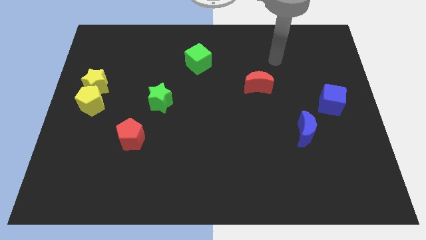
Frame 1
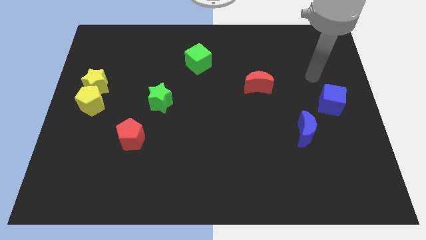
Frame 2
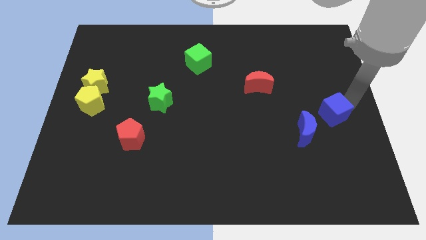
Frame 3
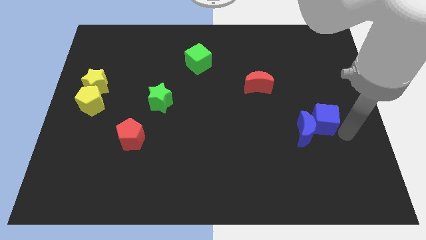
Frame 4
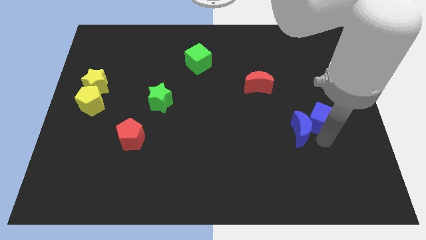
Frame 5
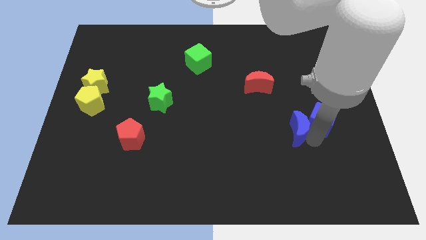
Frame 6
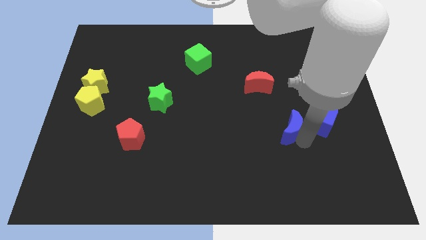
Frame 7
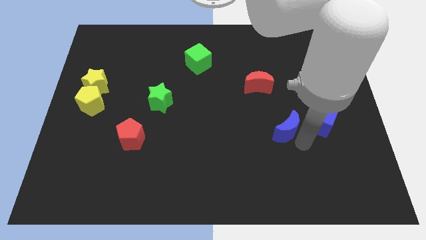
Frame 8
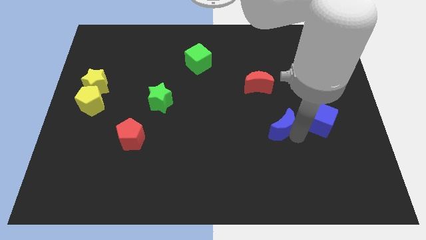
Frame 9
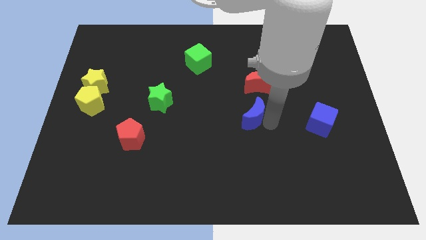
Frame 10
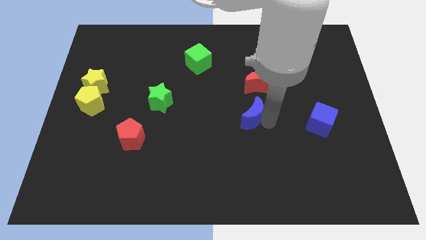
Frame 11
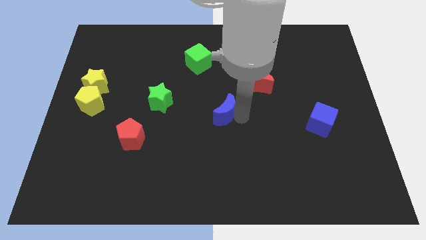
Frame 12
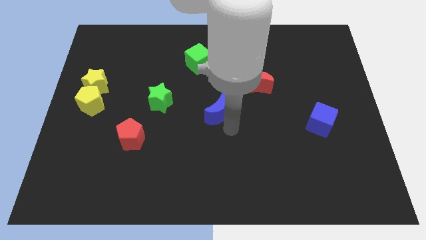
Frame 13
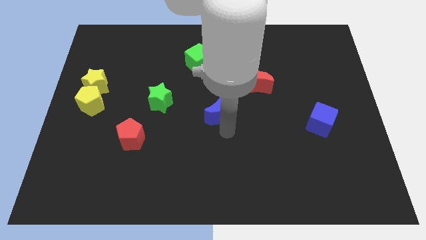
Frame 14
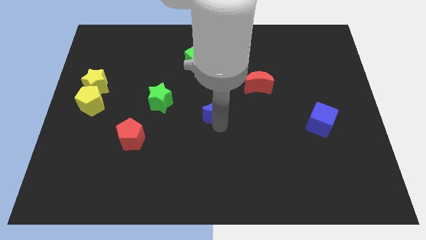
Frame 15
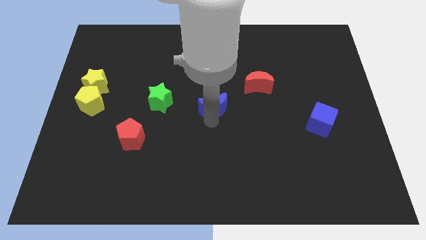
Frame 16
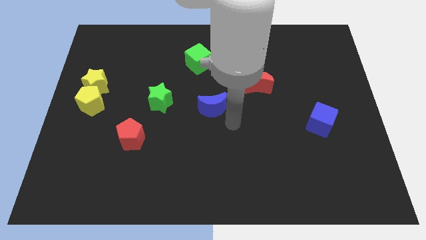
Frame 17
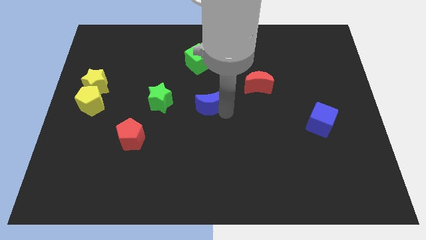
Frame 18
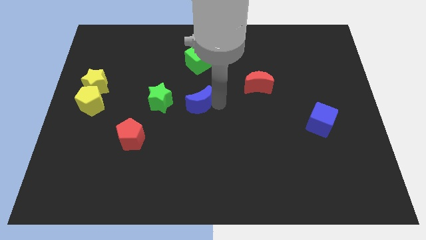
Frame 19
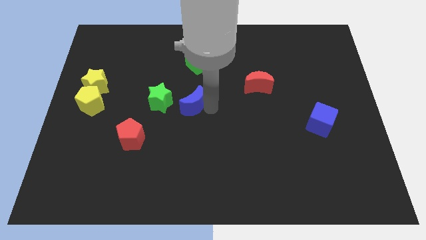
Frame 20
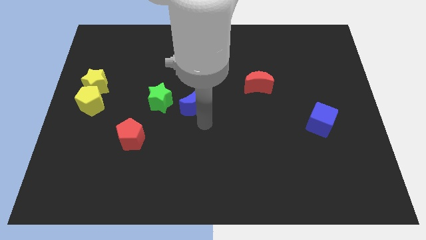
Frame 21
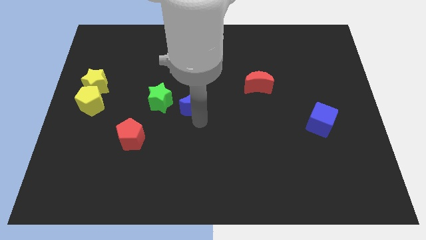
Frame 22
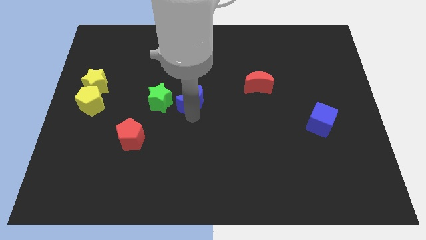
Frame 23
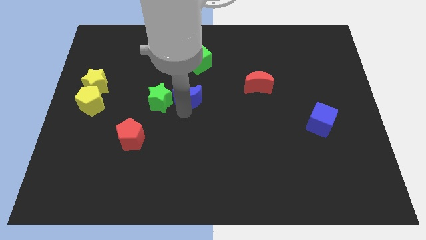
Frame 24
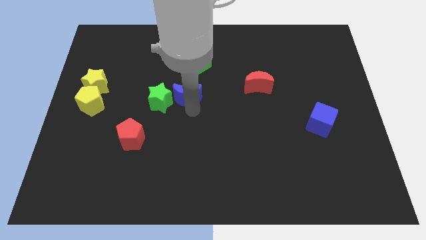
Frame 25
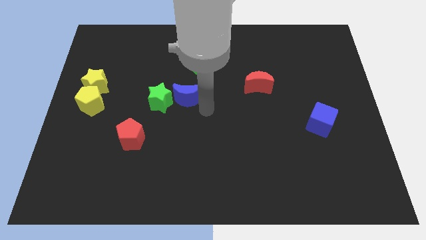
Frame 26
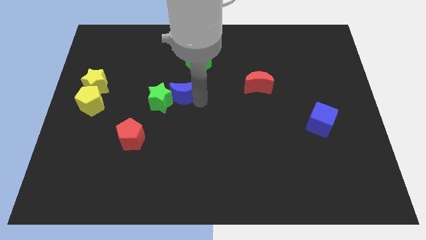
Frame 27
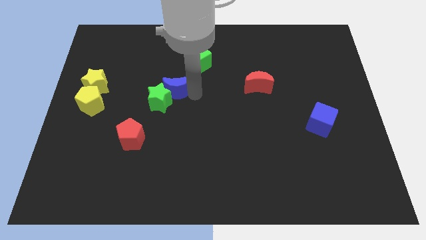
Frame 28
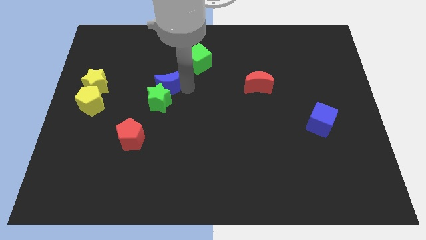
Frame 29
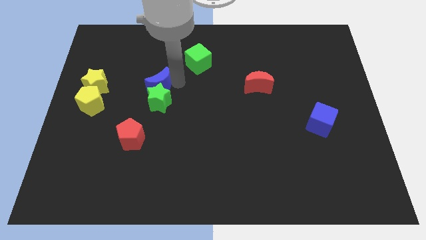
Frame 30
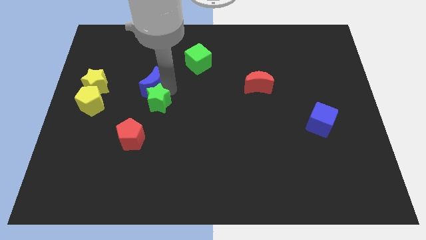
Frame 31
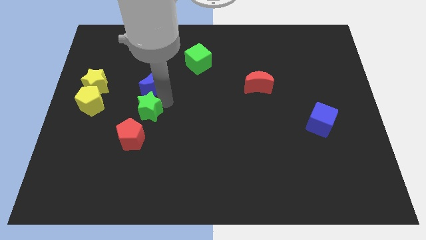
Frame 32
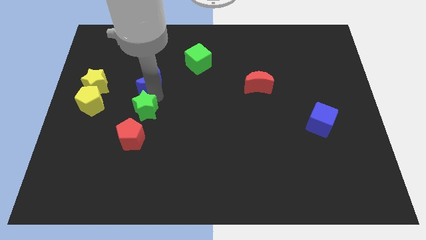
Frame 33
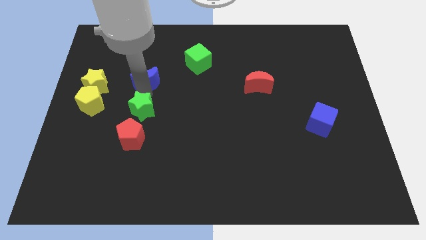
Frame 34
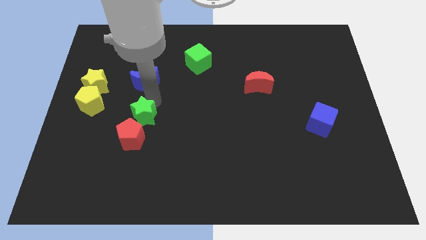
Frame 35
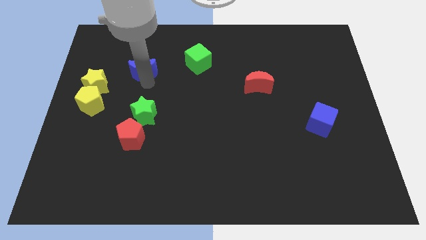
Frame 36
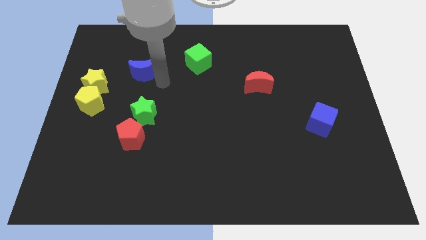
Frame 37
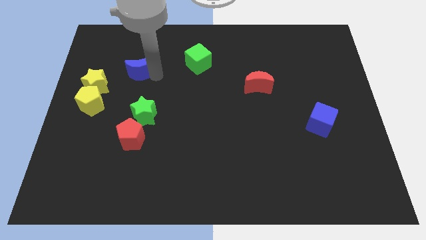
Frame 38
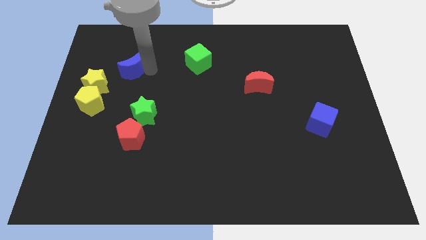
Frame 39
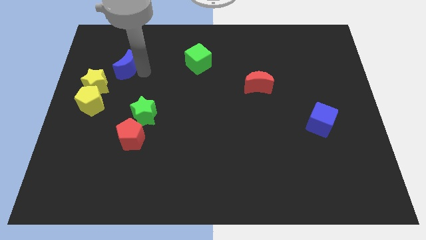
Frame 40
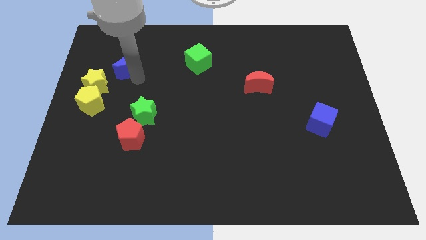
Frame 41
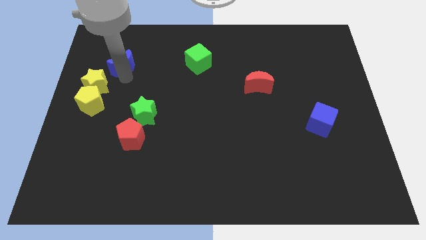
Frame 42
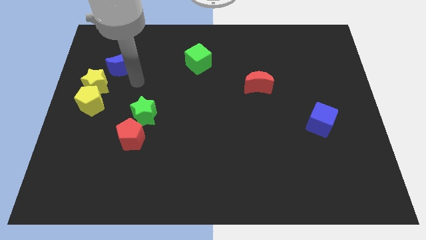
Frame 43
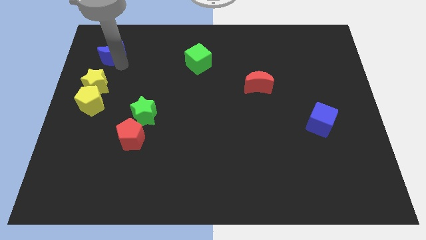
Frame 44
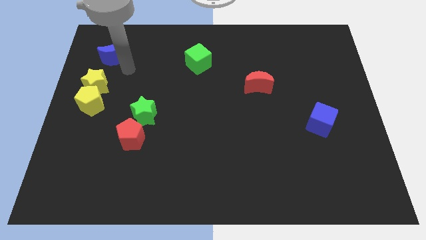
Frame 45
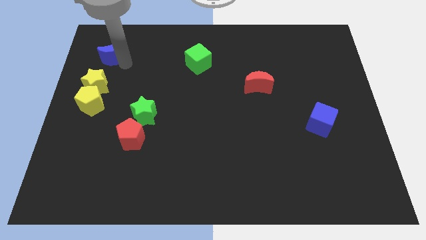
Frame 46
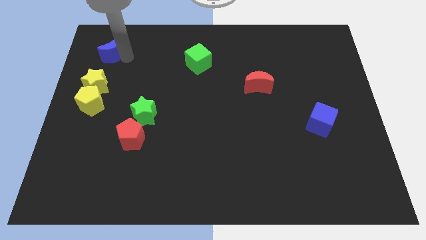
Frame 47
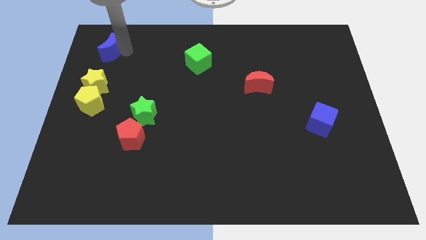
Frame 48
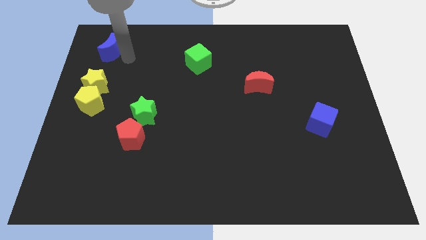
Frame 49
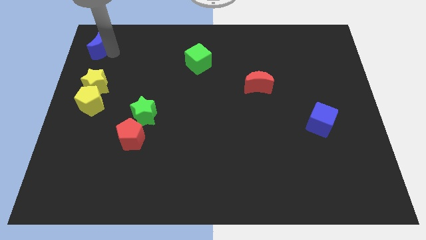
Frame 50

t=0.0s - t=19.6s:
slide the blue moon to the upper left corner

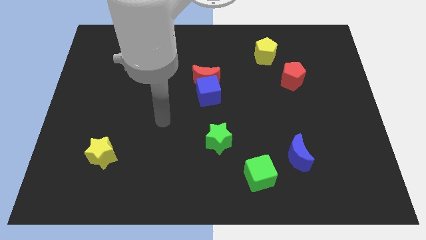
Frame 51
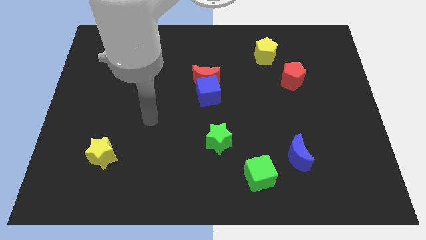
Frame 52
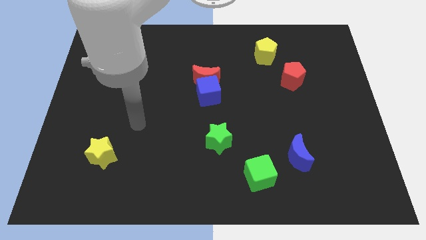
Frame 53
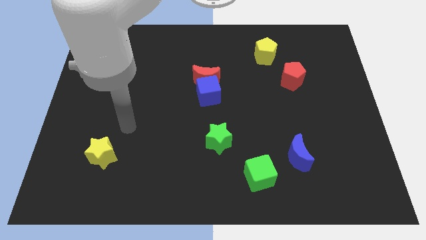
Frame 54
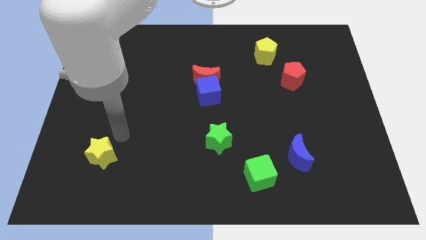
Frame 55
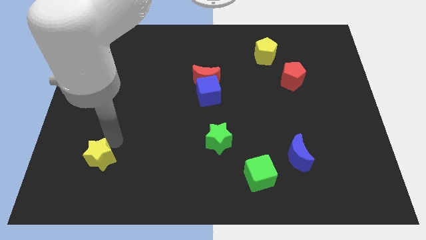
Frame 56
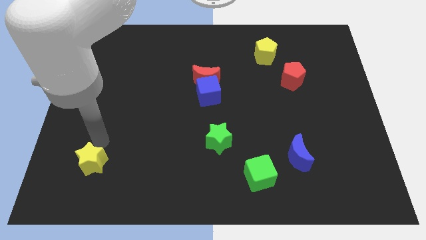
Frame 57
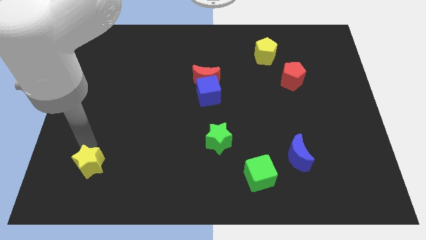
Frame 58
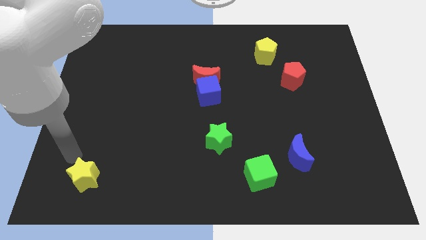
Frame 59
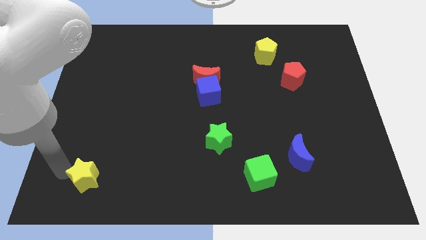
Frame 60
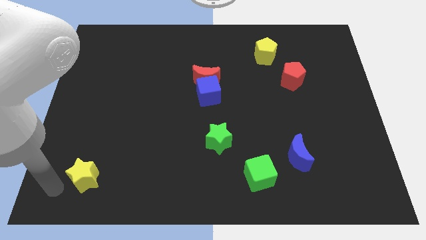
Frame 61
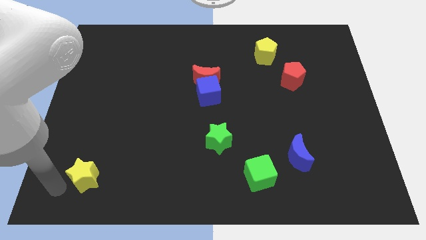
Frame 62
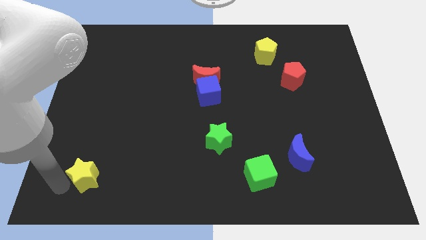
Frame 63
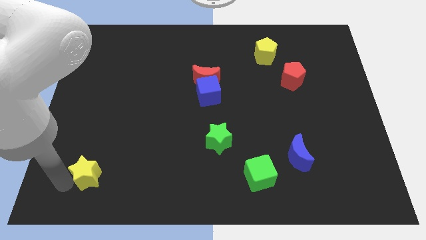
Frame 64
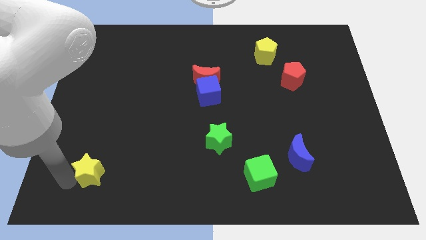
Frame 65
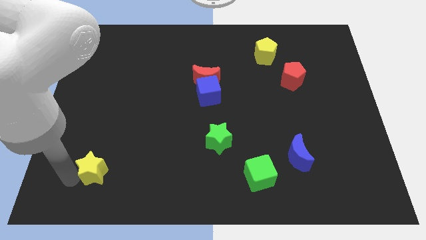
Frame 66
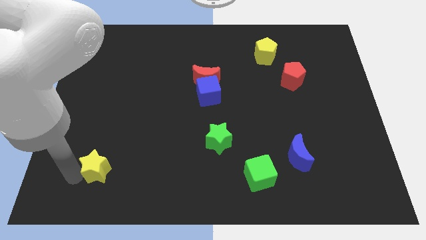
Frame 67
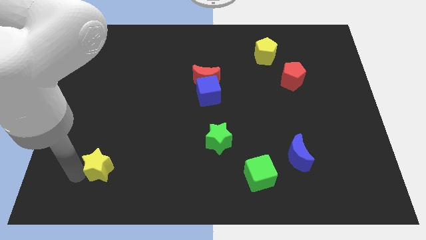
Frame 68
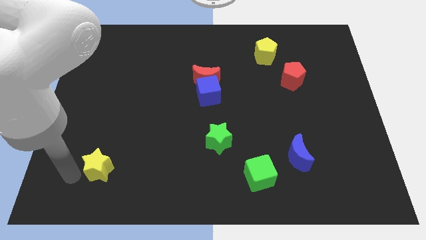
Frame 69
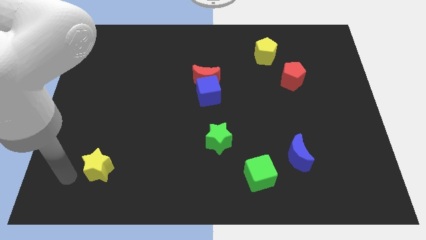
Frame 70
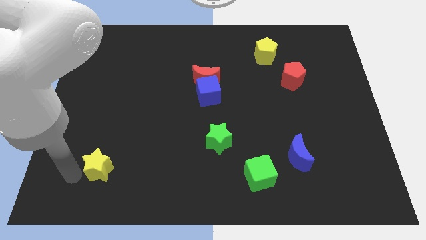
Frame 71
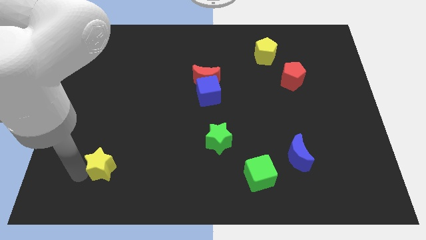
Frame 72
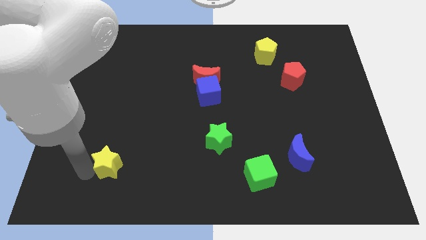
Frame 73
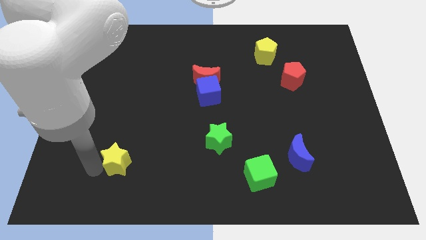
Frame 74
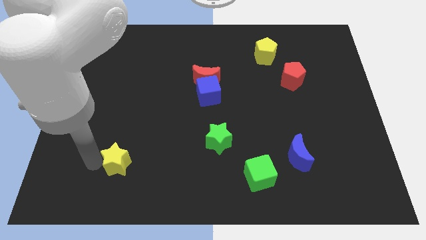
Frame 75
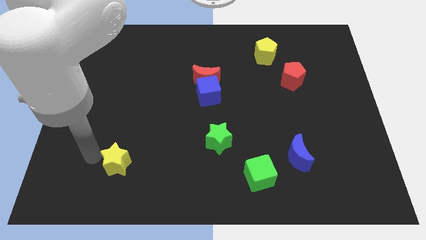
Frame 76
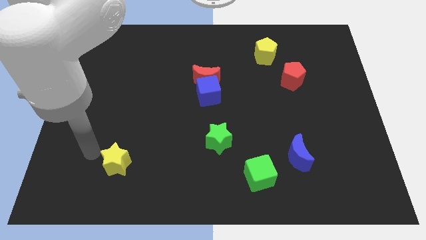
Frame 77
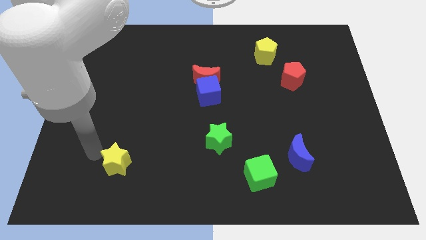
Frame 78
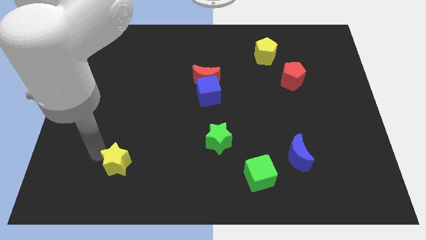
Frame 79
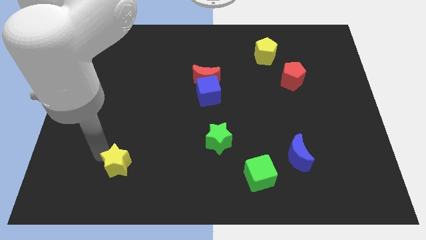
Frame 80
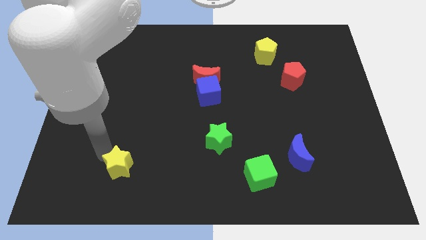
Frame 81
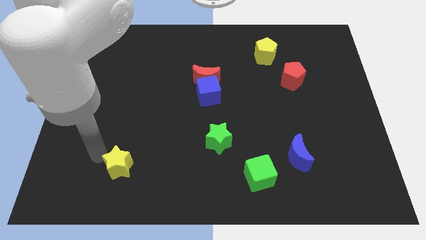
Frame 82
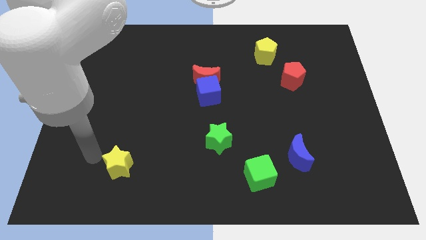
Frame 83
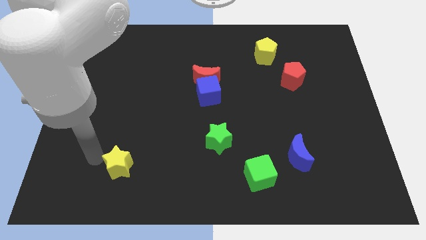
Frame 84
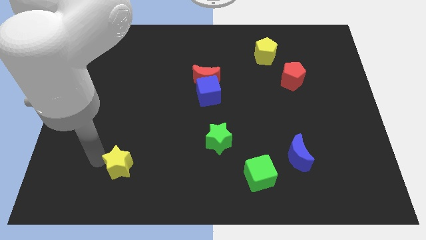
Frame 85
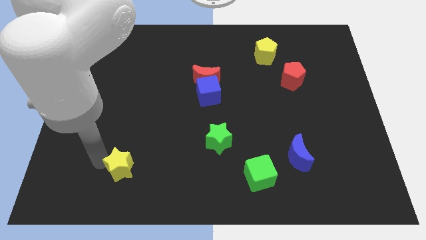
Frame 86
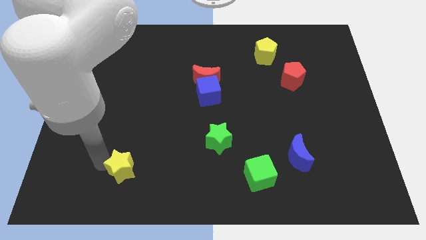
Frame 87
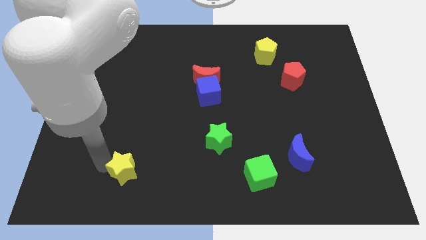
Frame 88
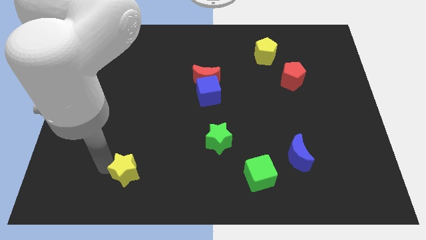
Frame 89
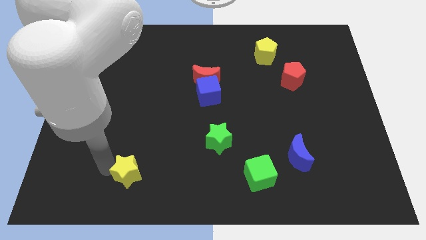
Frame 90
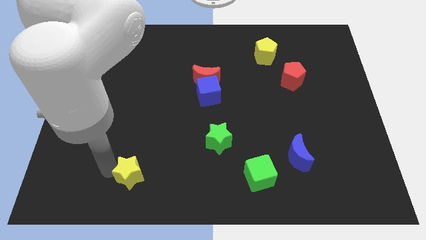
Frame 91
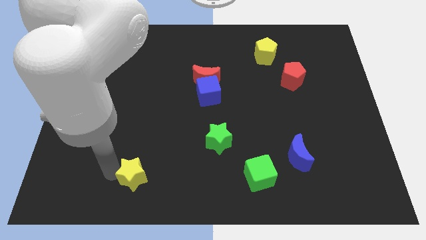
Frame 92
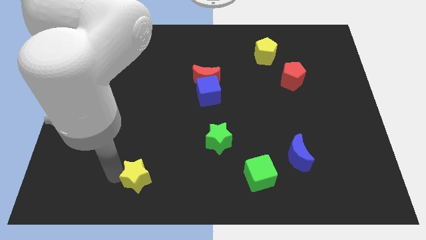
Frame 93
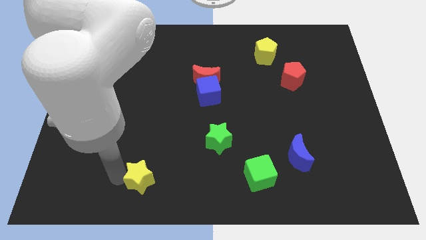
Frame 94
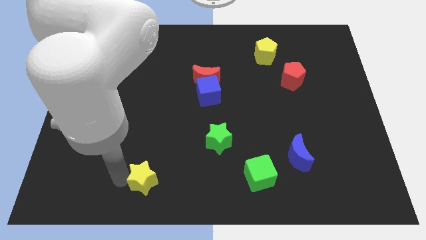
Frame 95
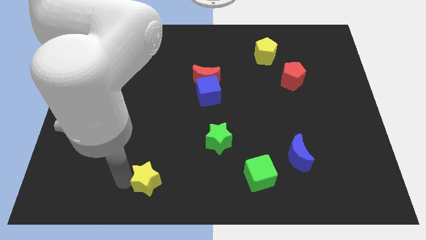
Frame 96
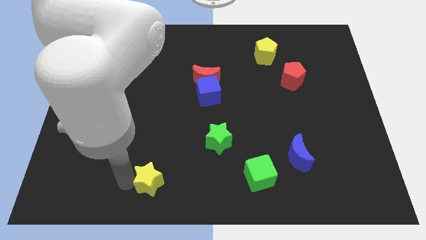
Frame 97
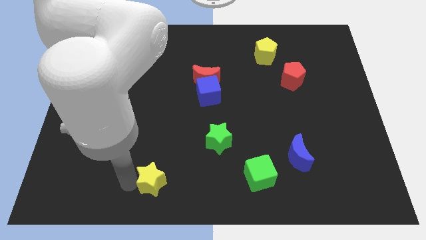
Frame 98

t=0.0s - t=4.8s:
push the yellow star to the bottom
